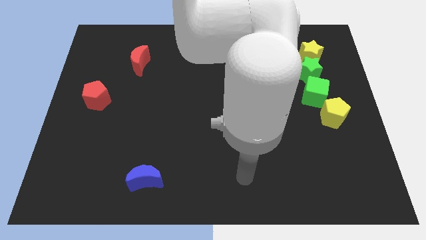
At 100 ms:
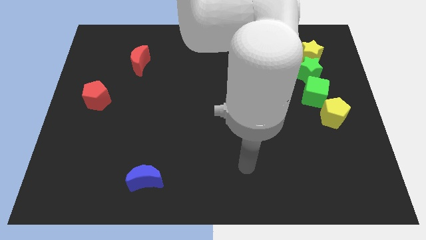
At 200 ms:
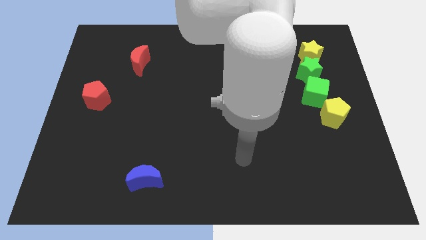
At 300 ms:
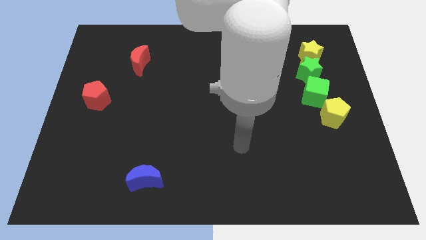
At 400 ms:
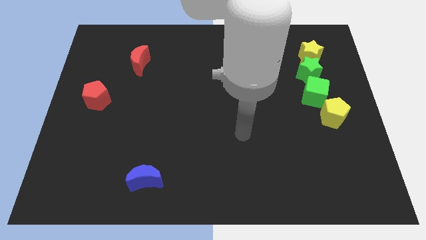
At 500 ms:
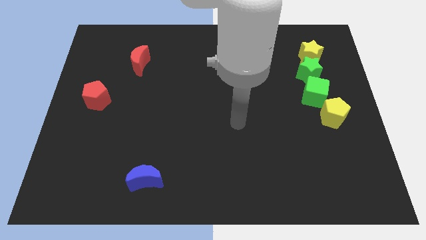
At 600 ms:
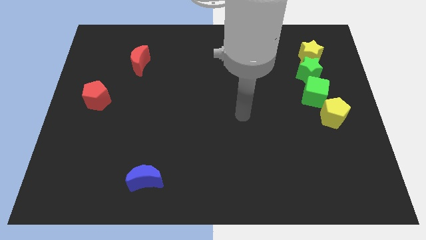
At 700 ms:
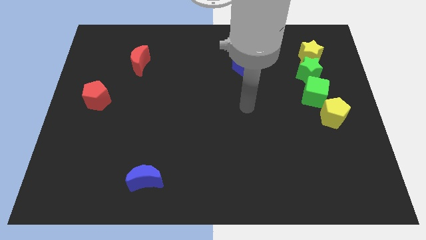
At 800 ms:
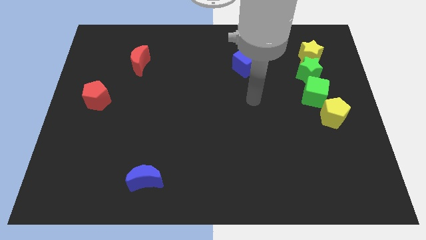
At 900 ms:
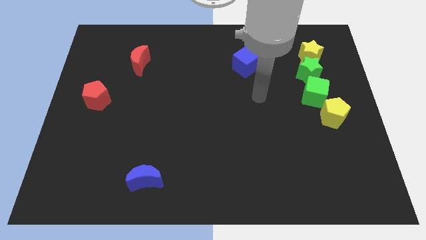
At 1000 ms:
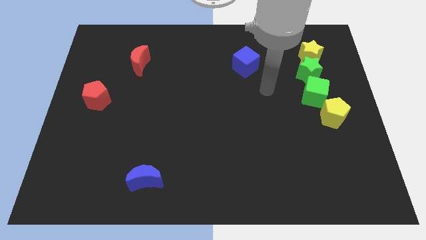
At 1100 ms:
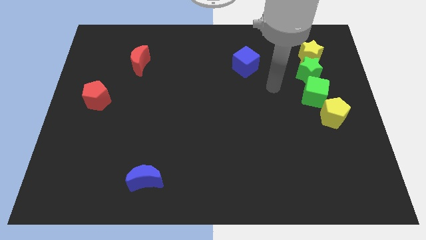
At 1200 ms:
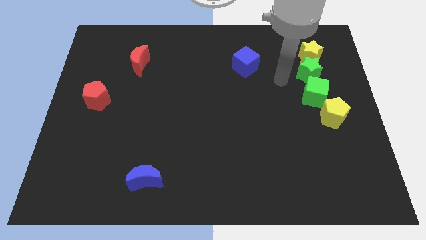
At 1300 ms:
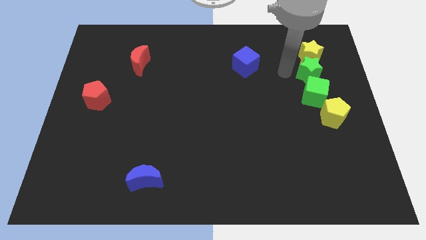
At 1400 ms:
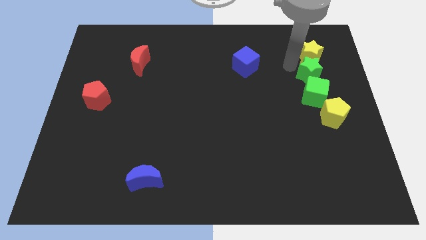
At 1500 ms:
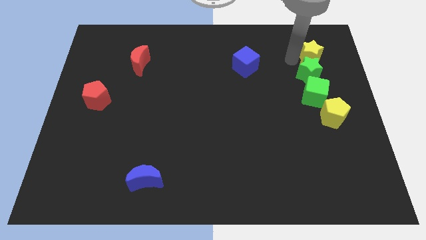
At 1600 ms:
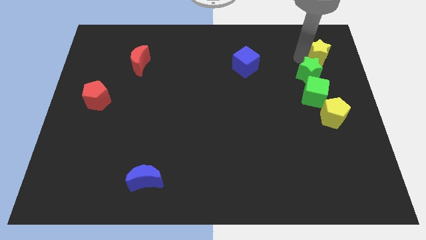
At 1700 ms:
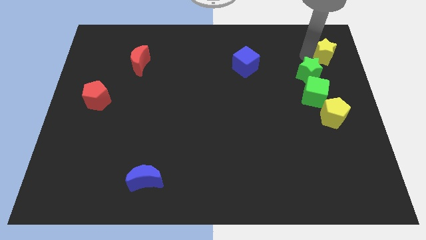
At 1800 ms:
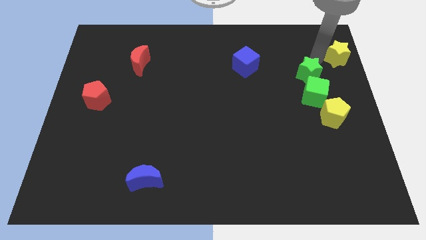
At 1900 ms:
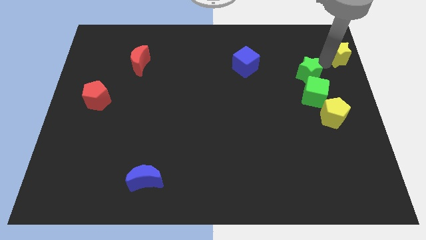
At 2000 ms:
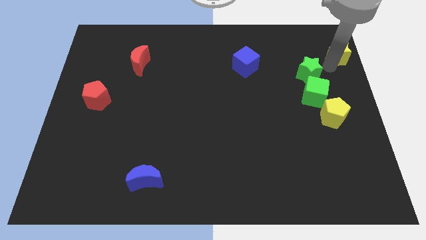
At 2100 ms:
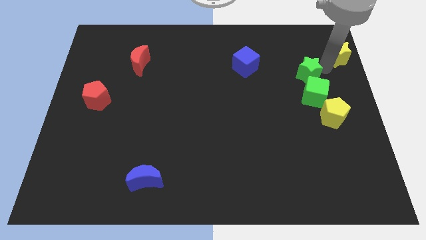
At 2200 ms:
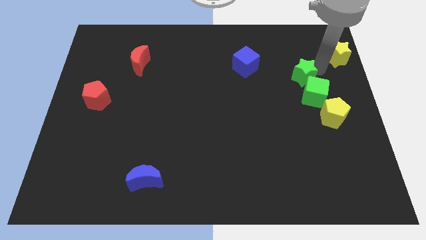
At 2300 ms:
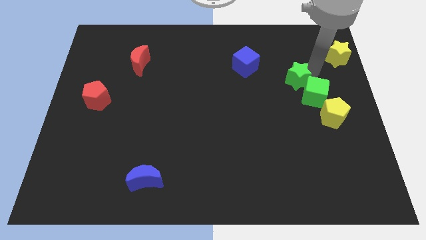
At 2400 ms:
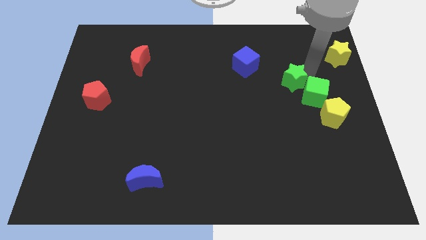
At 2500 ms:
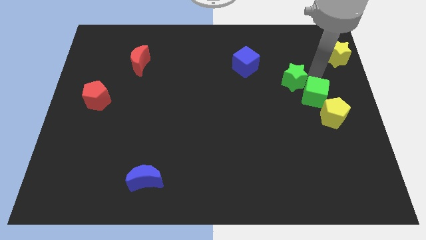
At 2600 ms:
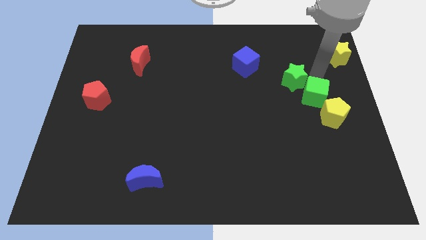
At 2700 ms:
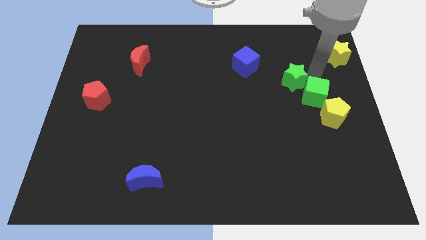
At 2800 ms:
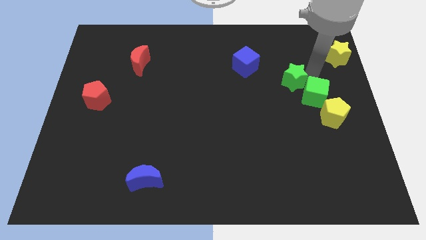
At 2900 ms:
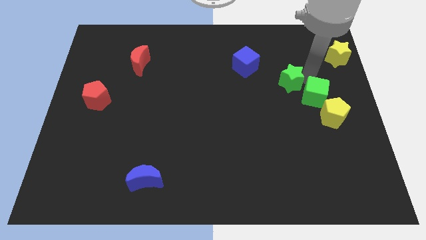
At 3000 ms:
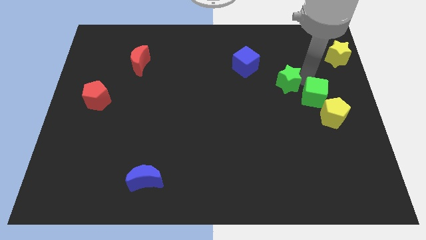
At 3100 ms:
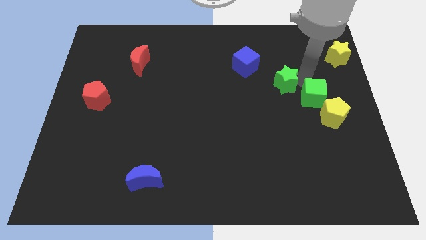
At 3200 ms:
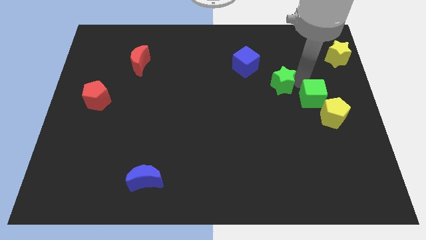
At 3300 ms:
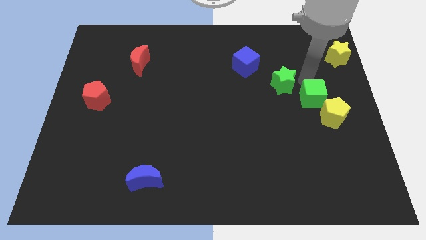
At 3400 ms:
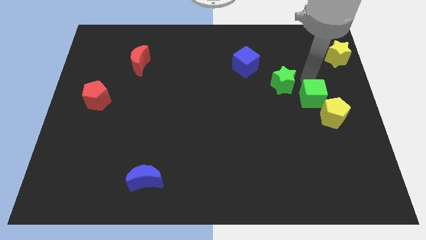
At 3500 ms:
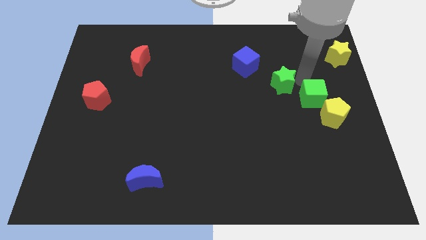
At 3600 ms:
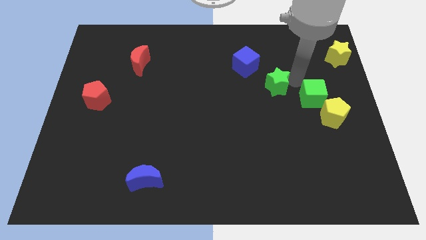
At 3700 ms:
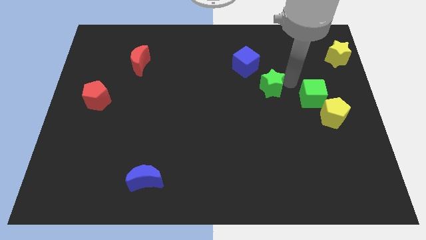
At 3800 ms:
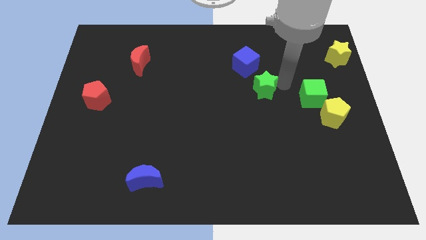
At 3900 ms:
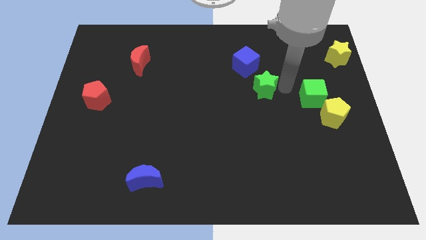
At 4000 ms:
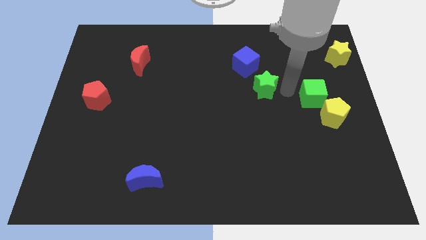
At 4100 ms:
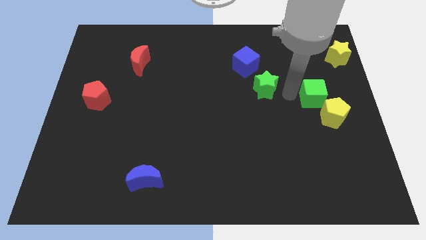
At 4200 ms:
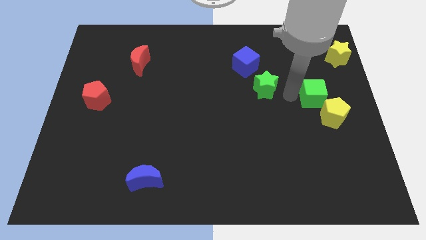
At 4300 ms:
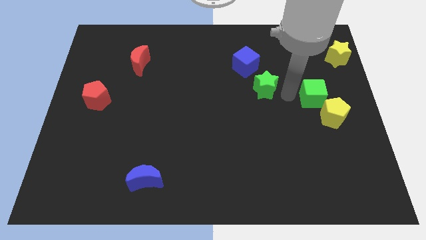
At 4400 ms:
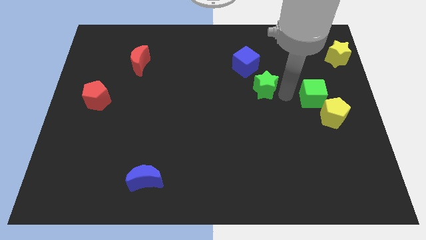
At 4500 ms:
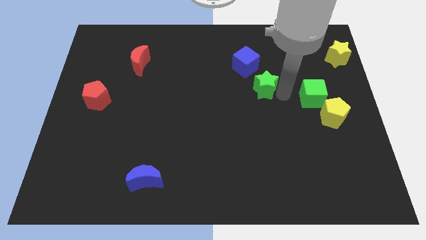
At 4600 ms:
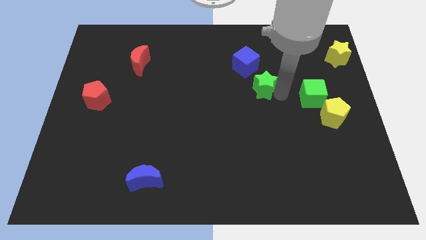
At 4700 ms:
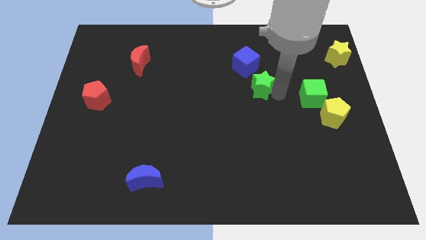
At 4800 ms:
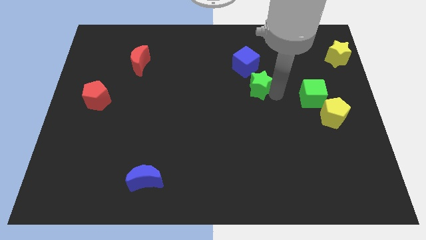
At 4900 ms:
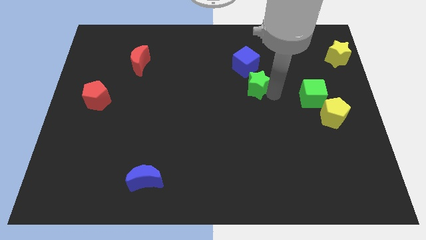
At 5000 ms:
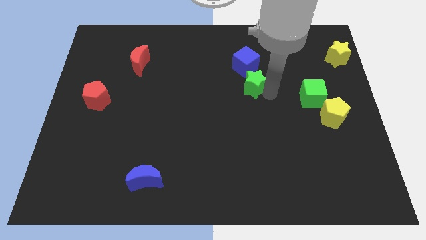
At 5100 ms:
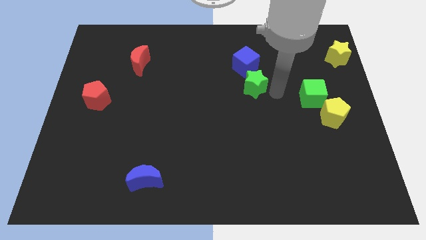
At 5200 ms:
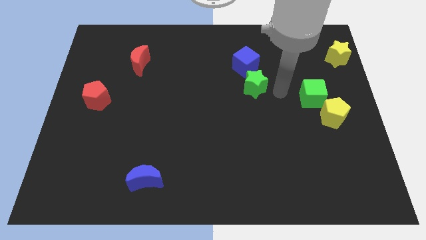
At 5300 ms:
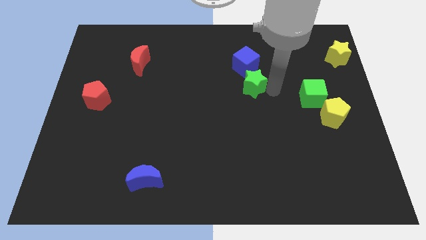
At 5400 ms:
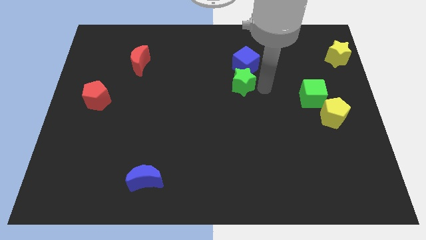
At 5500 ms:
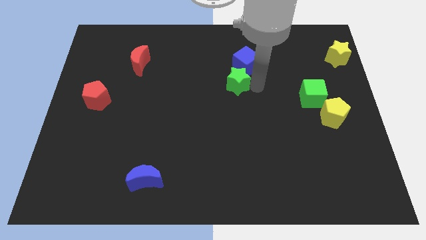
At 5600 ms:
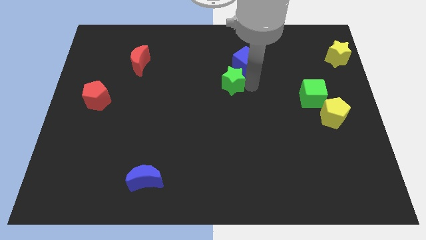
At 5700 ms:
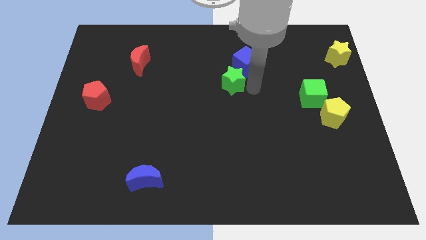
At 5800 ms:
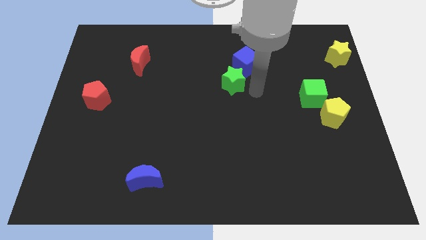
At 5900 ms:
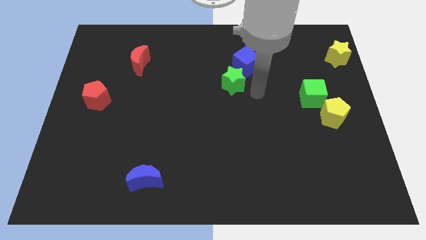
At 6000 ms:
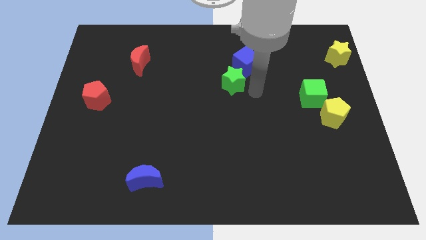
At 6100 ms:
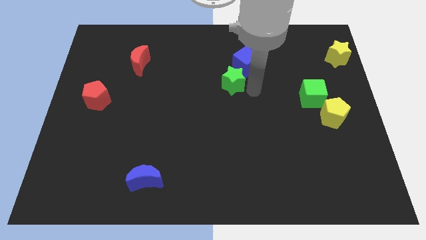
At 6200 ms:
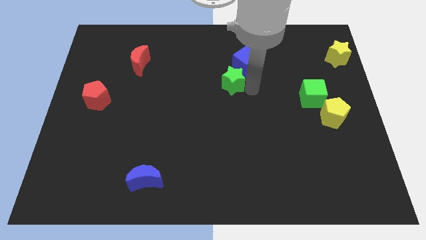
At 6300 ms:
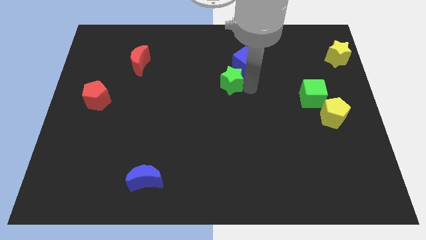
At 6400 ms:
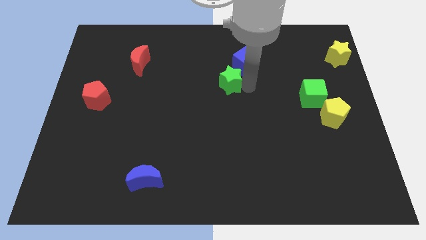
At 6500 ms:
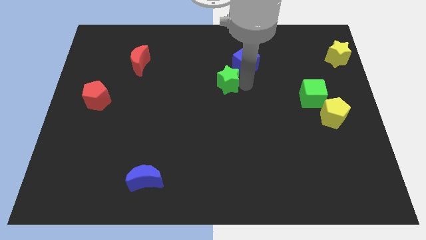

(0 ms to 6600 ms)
push the green star to the left

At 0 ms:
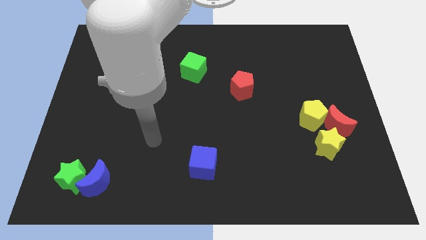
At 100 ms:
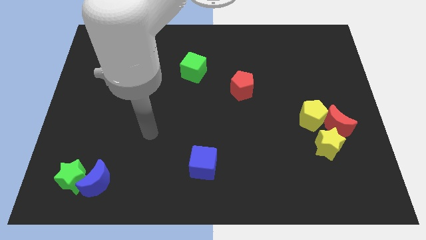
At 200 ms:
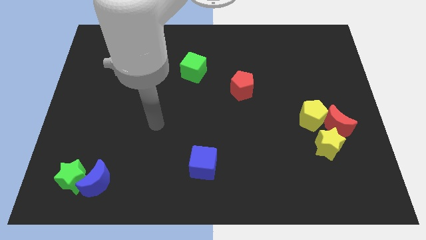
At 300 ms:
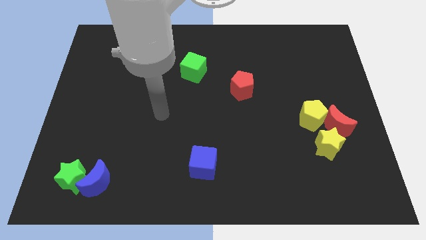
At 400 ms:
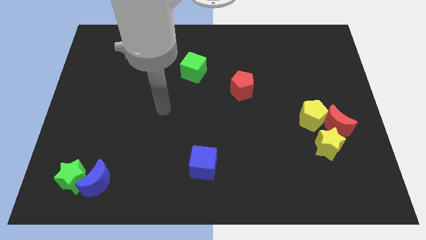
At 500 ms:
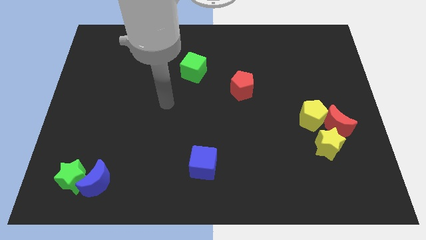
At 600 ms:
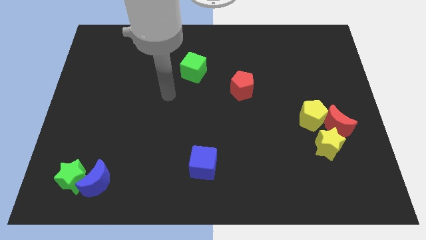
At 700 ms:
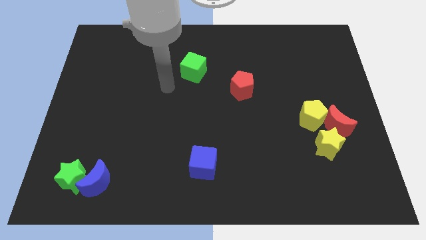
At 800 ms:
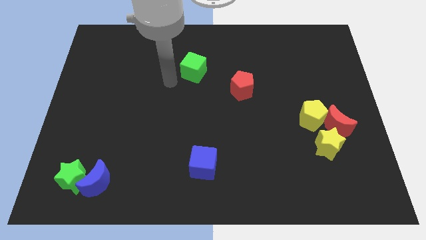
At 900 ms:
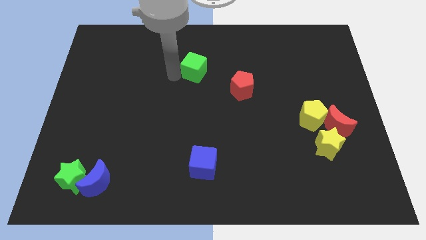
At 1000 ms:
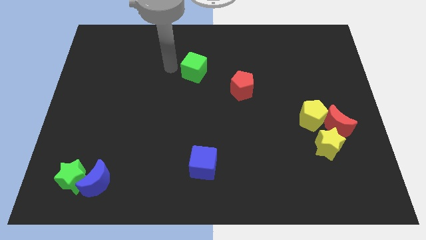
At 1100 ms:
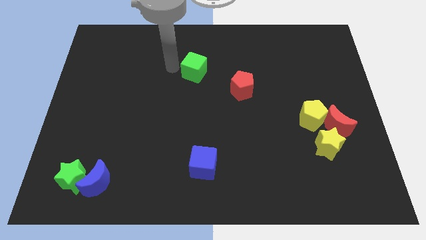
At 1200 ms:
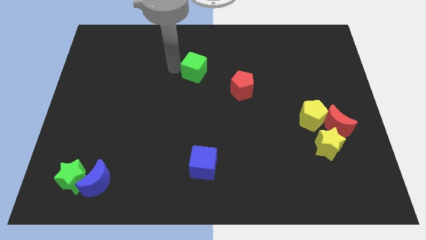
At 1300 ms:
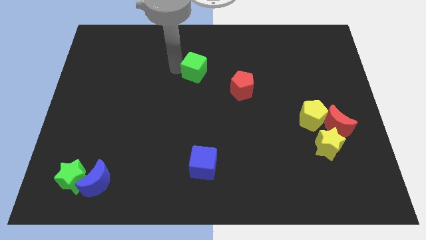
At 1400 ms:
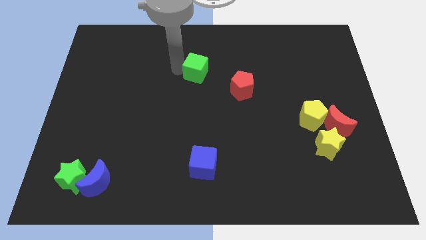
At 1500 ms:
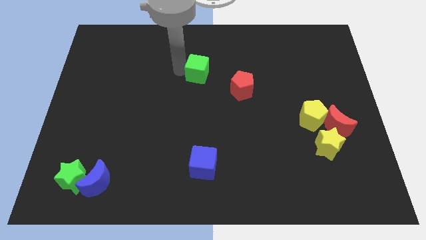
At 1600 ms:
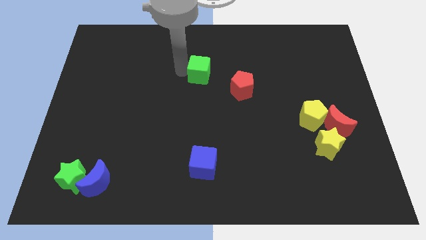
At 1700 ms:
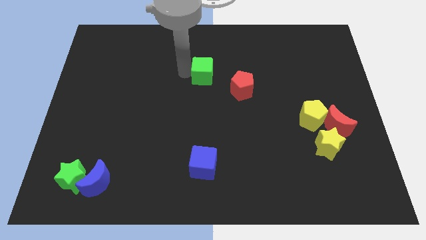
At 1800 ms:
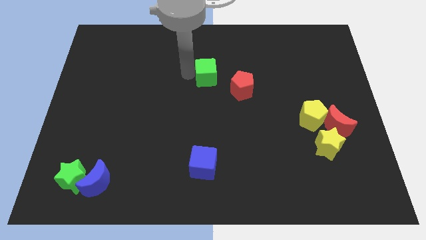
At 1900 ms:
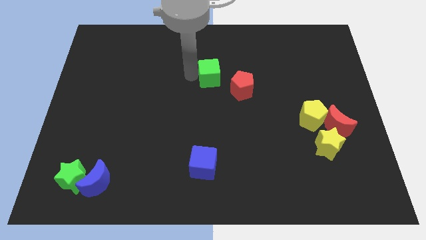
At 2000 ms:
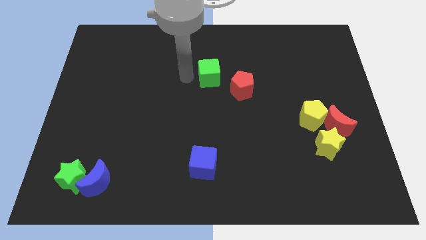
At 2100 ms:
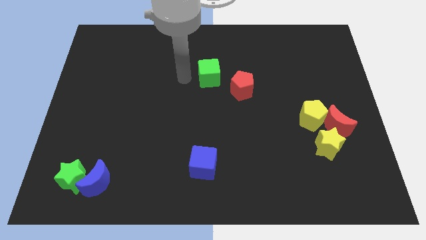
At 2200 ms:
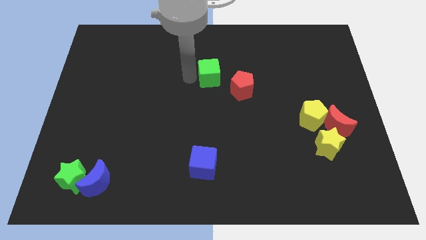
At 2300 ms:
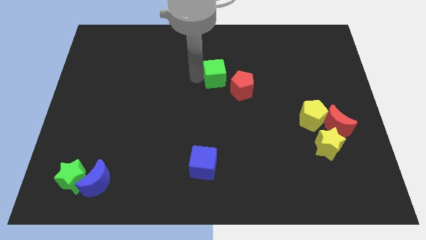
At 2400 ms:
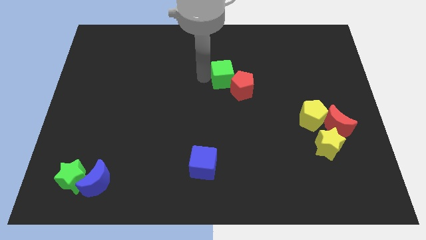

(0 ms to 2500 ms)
move the green cube a bit to the right
